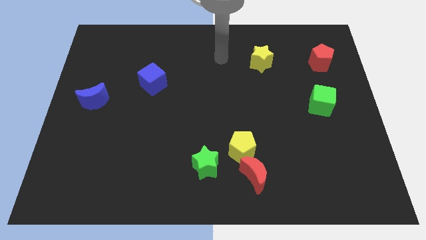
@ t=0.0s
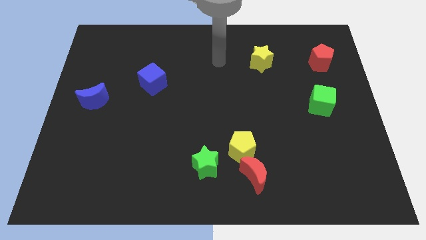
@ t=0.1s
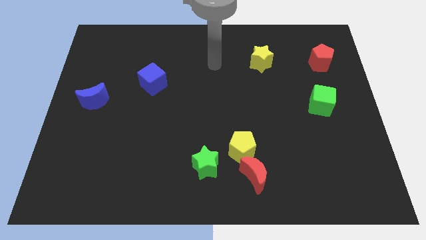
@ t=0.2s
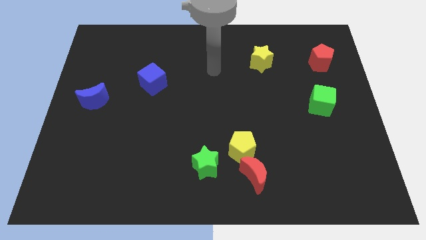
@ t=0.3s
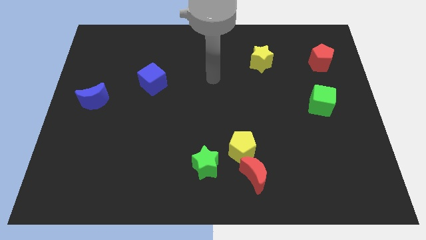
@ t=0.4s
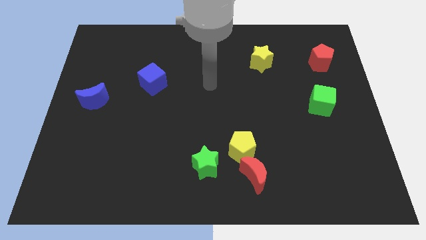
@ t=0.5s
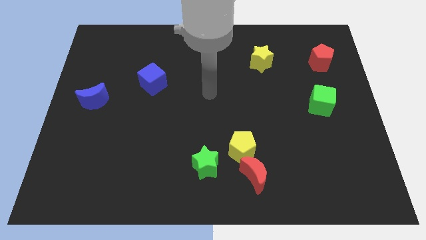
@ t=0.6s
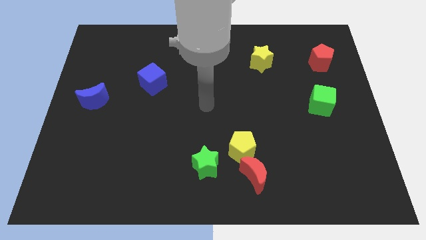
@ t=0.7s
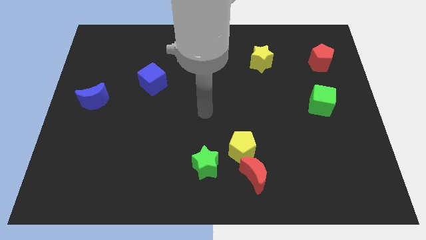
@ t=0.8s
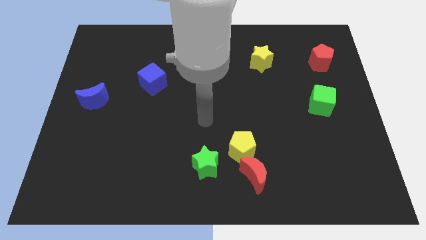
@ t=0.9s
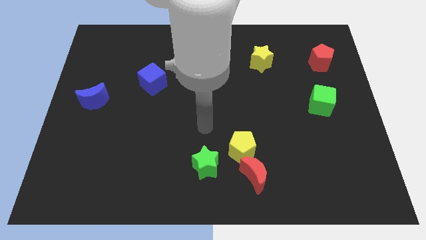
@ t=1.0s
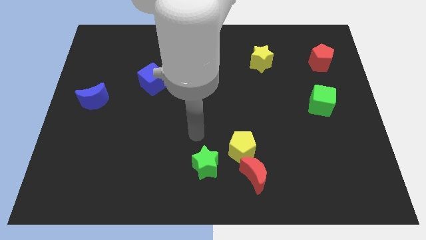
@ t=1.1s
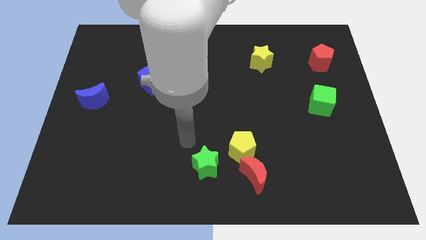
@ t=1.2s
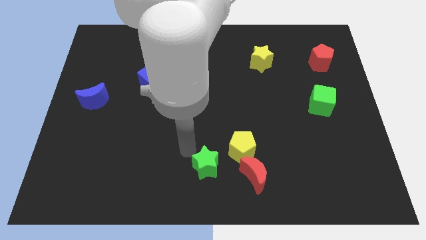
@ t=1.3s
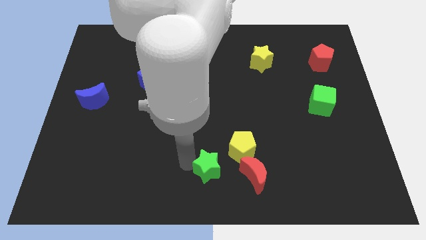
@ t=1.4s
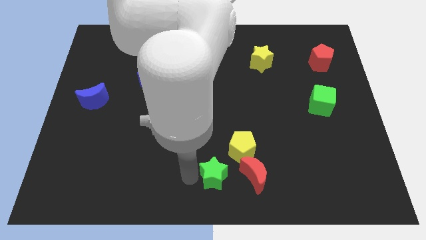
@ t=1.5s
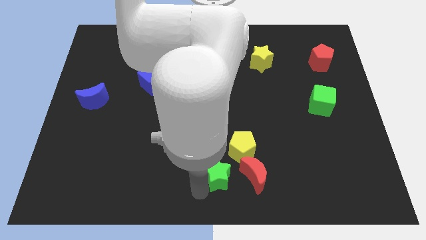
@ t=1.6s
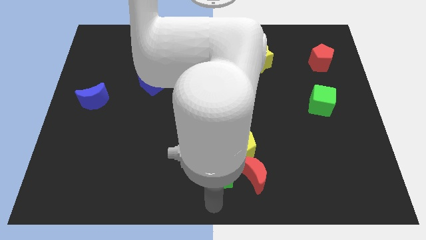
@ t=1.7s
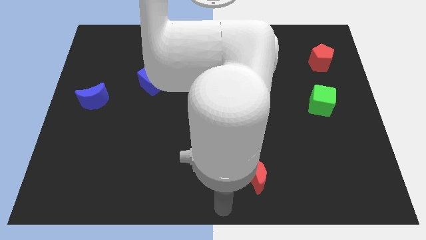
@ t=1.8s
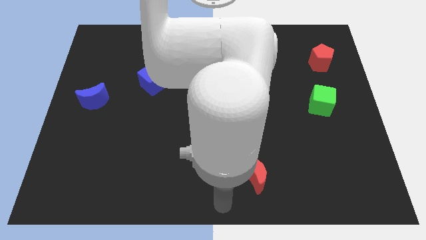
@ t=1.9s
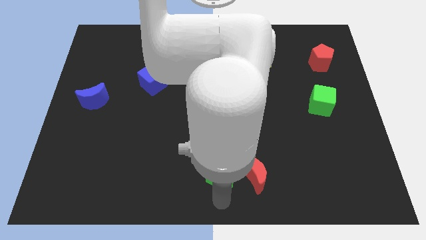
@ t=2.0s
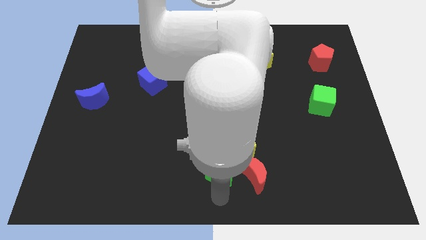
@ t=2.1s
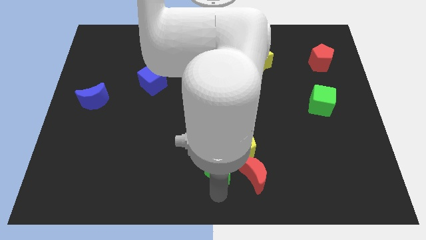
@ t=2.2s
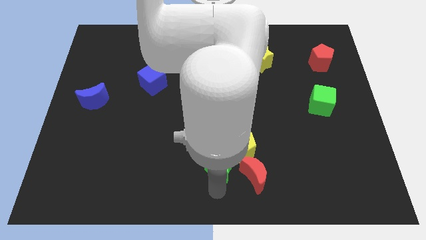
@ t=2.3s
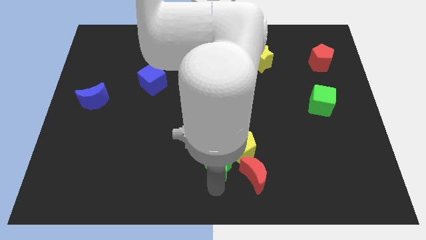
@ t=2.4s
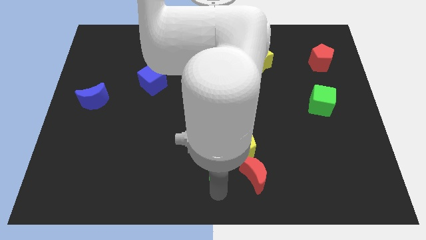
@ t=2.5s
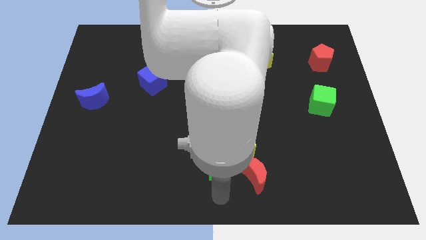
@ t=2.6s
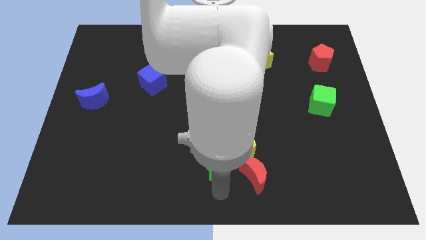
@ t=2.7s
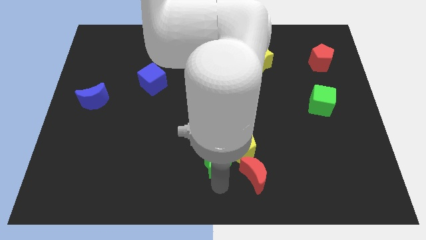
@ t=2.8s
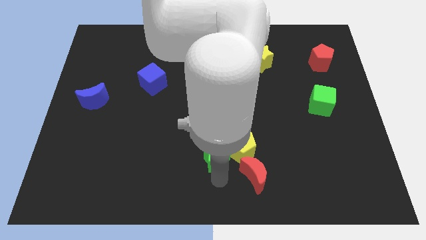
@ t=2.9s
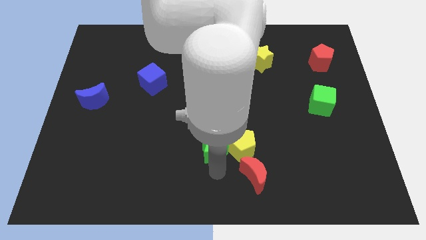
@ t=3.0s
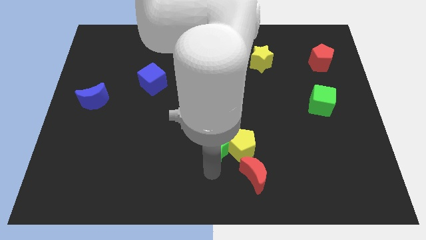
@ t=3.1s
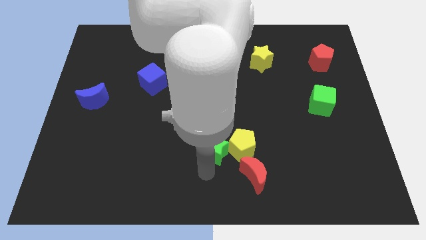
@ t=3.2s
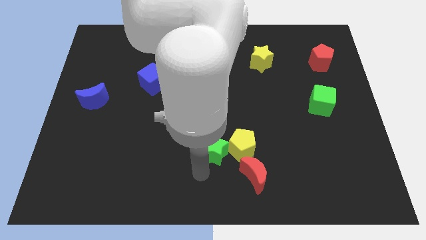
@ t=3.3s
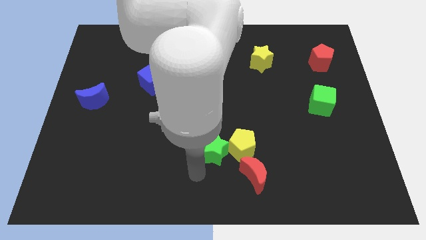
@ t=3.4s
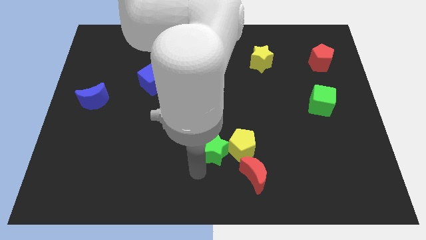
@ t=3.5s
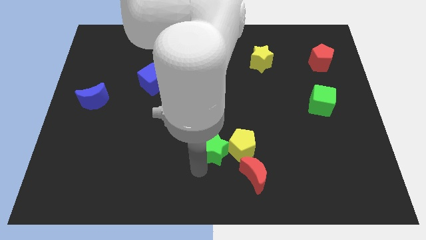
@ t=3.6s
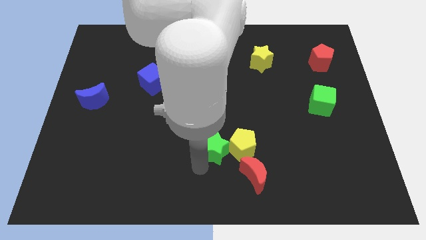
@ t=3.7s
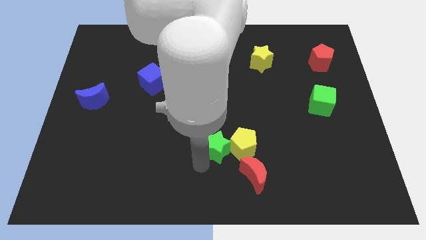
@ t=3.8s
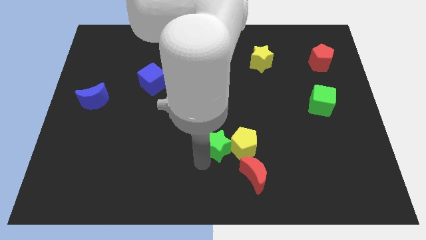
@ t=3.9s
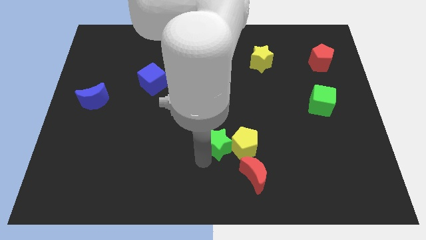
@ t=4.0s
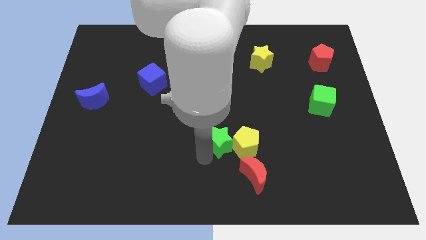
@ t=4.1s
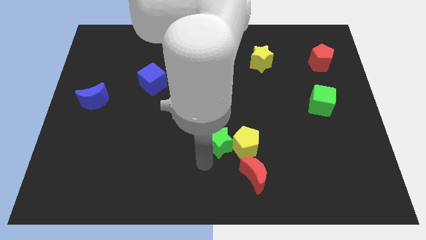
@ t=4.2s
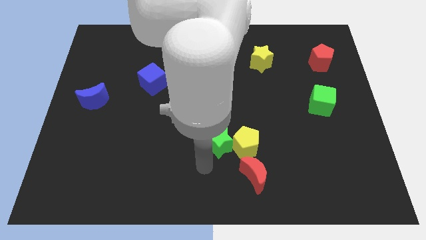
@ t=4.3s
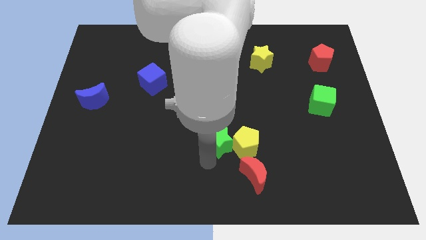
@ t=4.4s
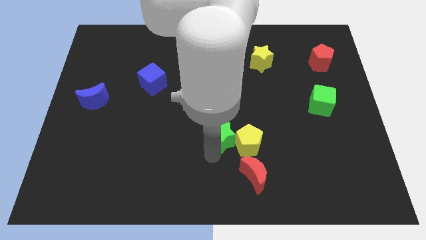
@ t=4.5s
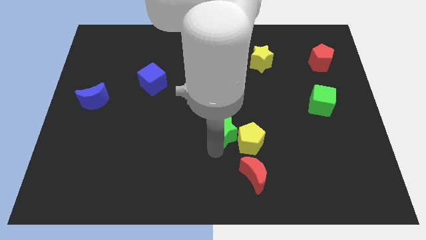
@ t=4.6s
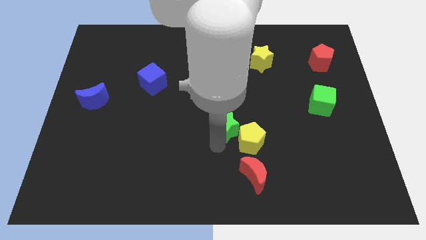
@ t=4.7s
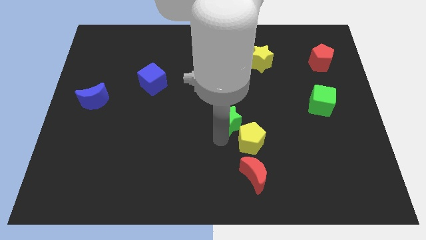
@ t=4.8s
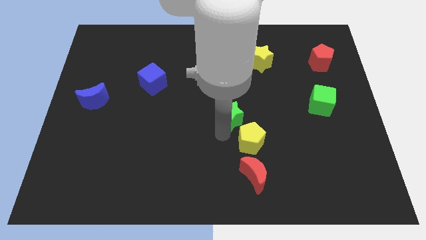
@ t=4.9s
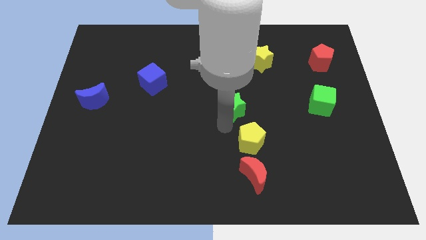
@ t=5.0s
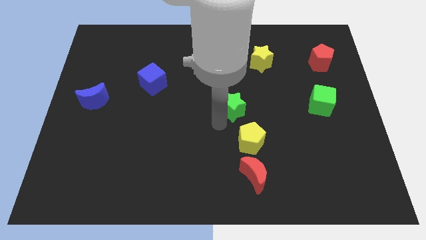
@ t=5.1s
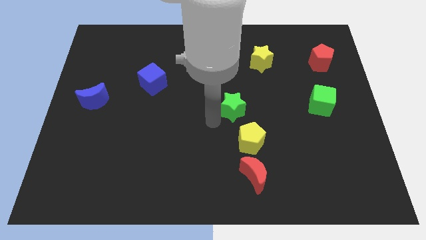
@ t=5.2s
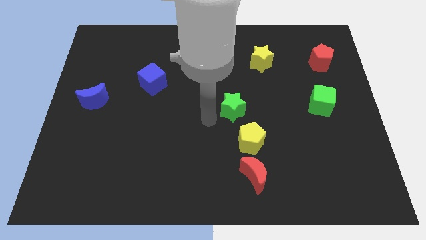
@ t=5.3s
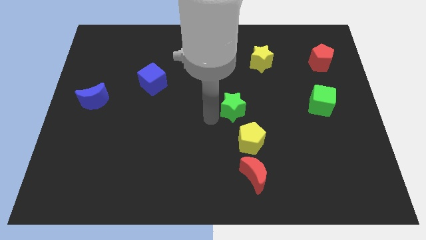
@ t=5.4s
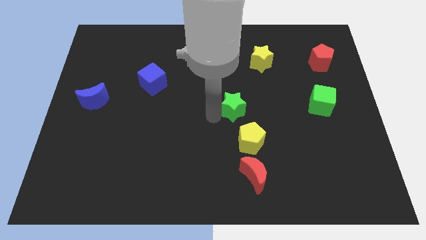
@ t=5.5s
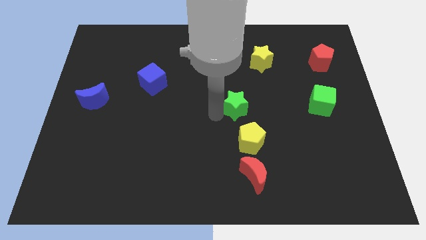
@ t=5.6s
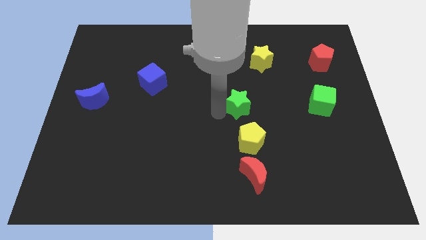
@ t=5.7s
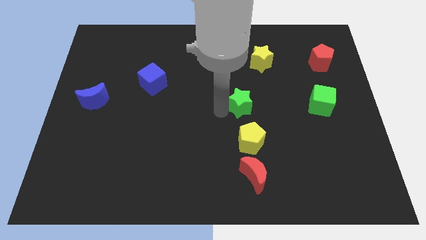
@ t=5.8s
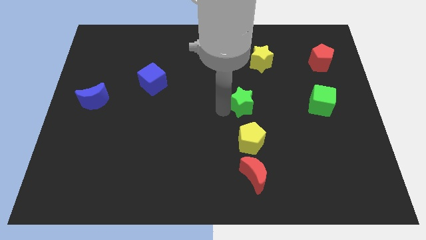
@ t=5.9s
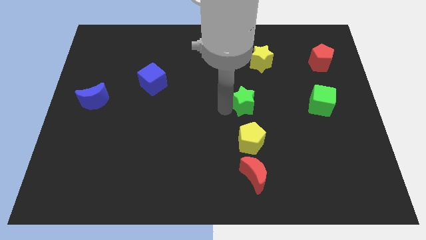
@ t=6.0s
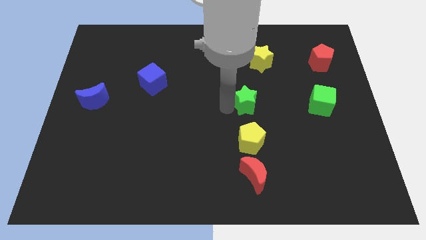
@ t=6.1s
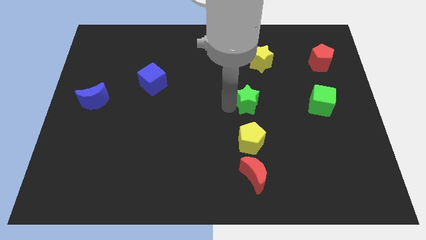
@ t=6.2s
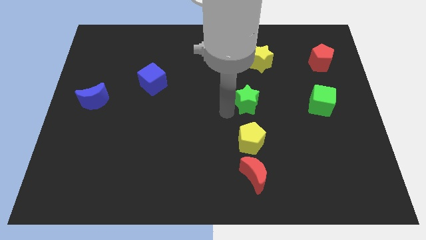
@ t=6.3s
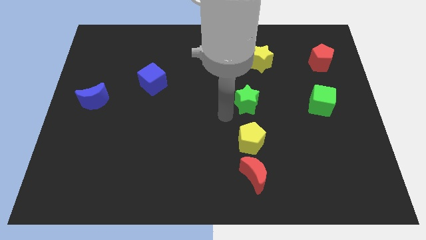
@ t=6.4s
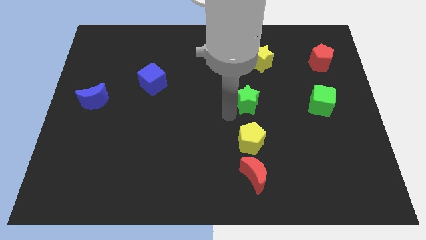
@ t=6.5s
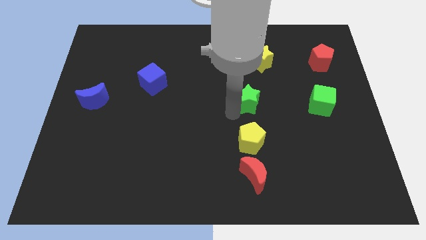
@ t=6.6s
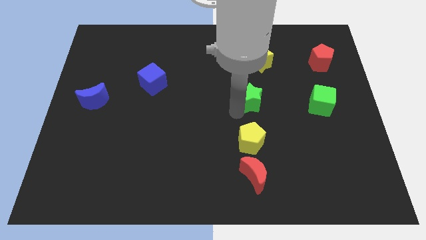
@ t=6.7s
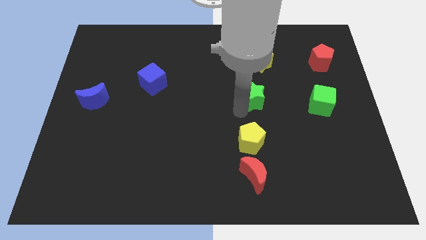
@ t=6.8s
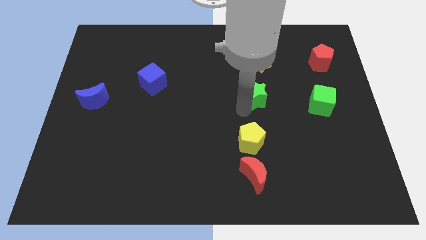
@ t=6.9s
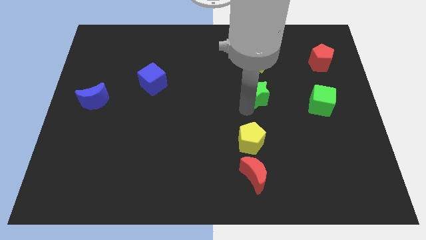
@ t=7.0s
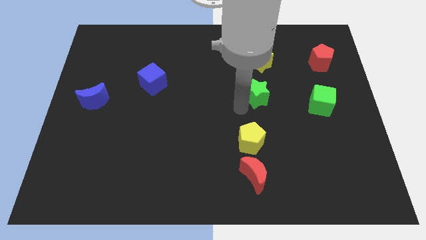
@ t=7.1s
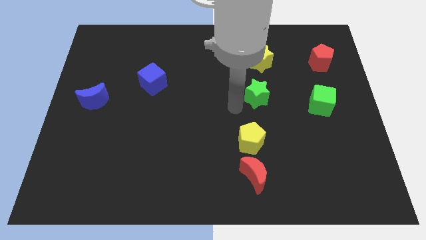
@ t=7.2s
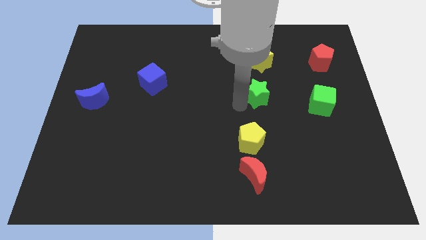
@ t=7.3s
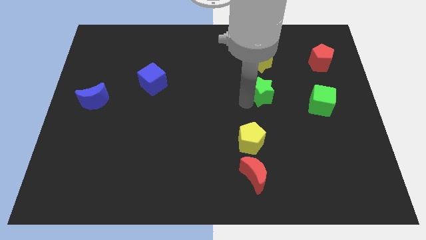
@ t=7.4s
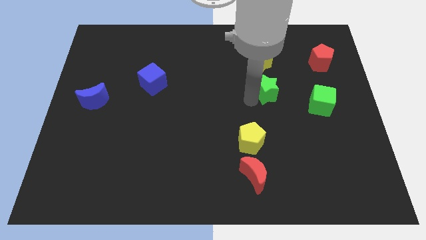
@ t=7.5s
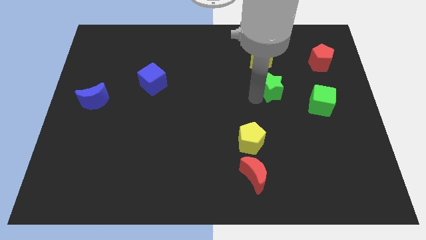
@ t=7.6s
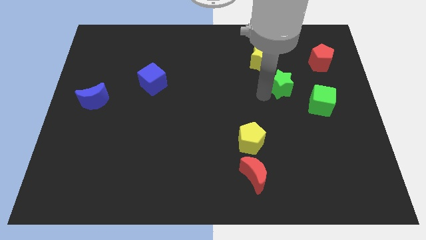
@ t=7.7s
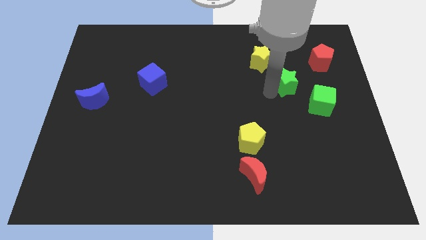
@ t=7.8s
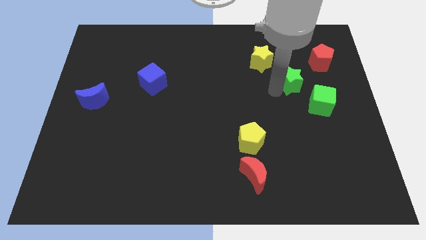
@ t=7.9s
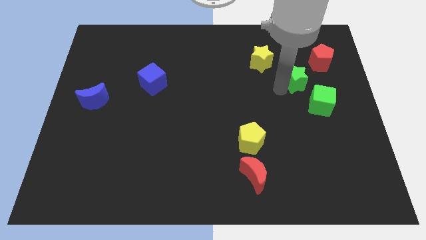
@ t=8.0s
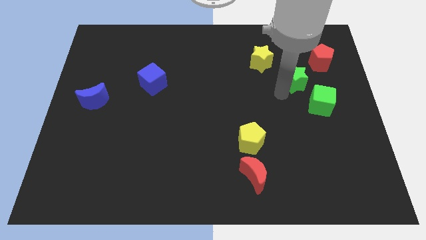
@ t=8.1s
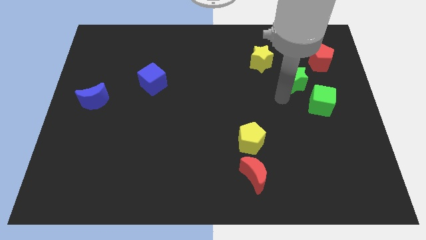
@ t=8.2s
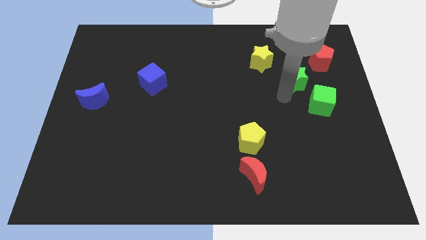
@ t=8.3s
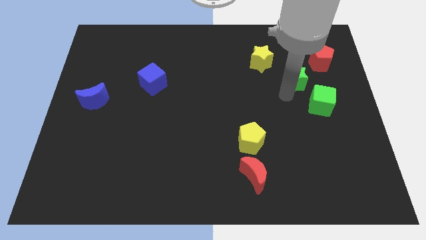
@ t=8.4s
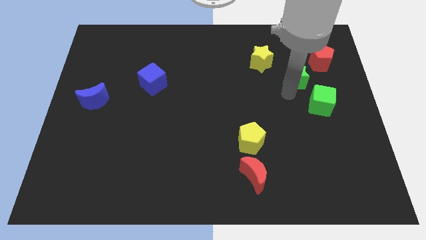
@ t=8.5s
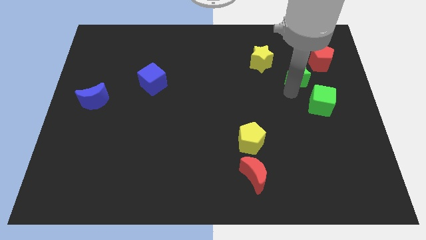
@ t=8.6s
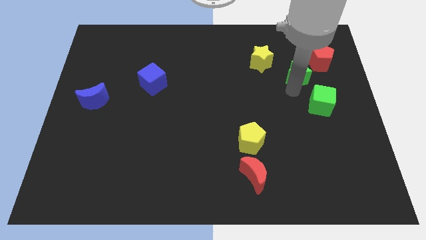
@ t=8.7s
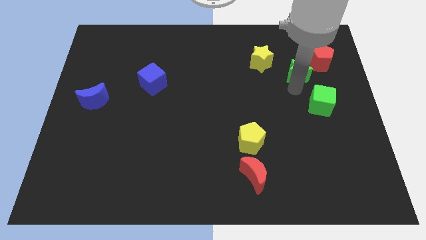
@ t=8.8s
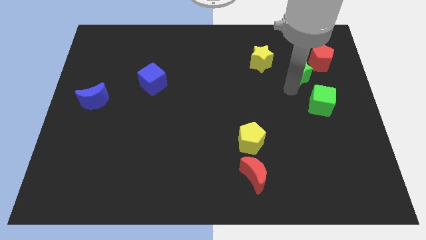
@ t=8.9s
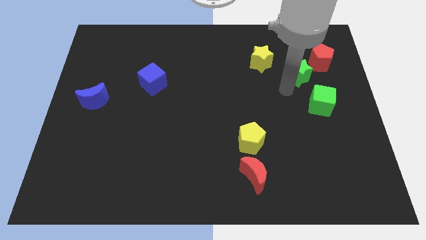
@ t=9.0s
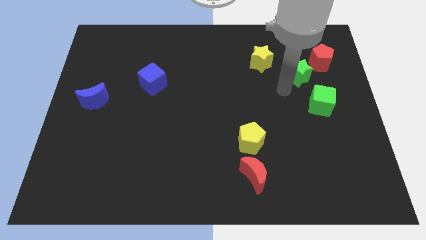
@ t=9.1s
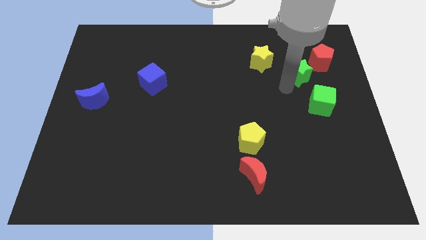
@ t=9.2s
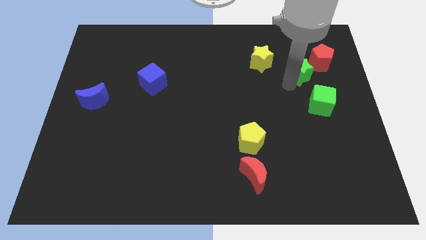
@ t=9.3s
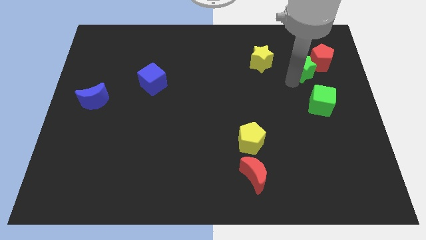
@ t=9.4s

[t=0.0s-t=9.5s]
push the green star close to the red pentagon
